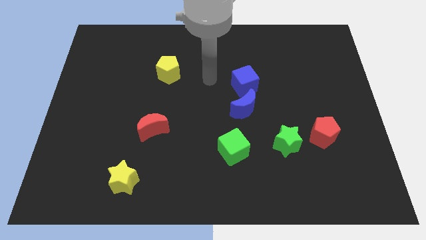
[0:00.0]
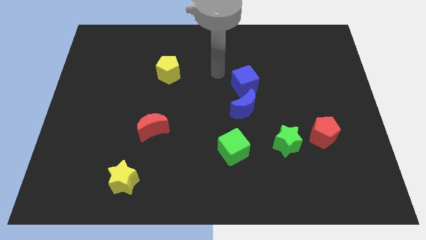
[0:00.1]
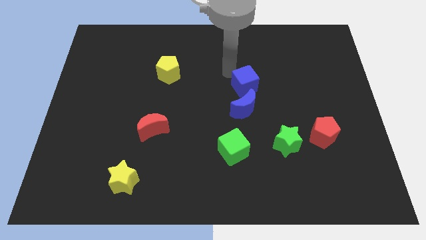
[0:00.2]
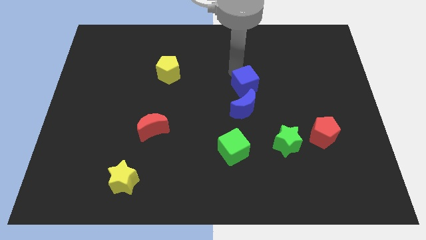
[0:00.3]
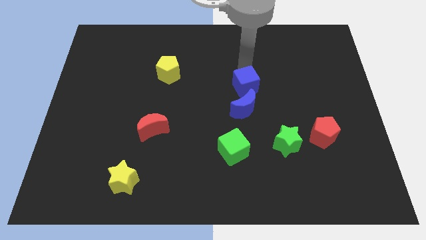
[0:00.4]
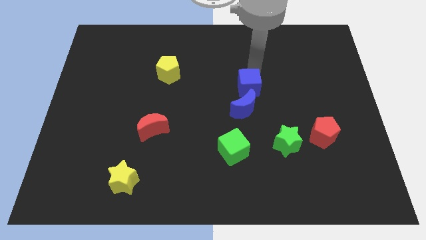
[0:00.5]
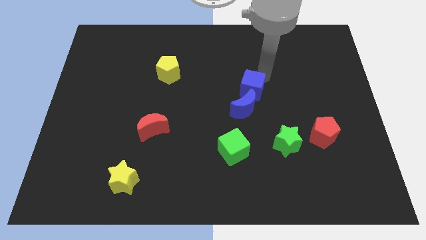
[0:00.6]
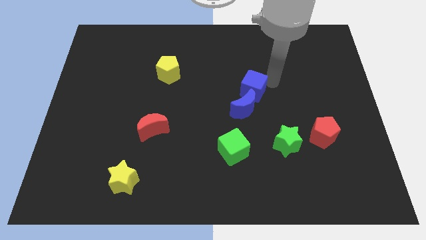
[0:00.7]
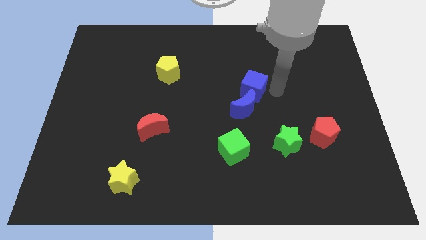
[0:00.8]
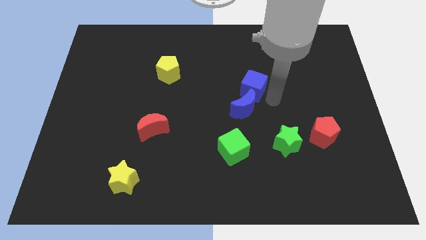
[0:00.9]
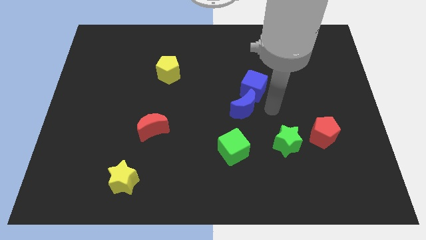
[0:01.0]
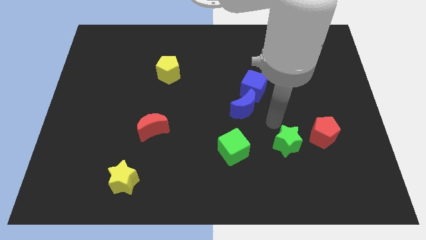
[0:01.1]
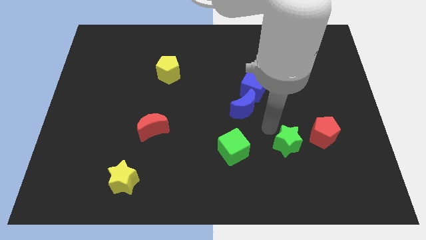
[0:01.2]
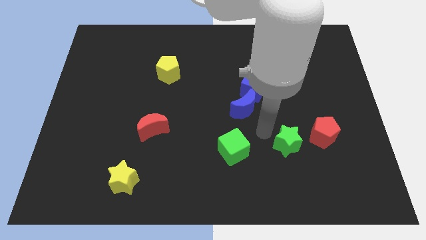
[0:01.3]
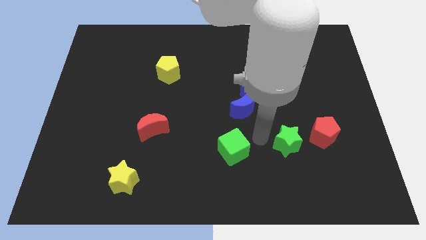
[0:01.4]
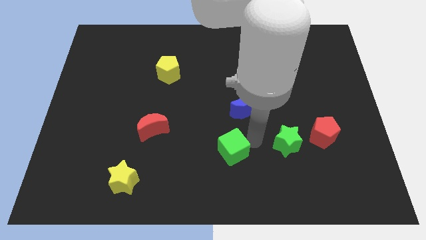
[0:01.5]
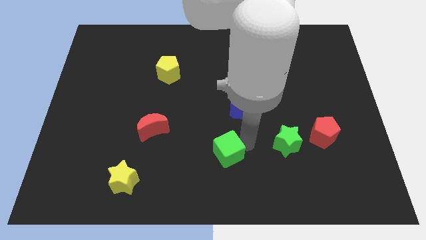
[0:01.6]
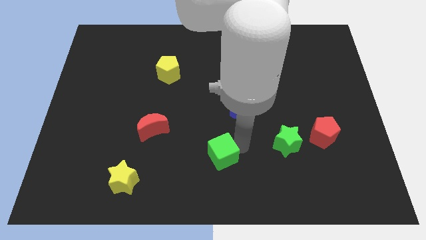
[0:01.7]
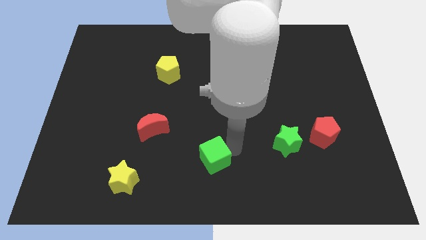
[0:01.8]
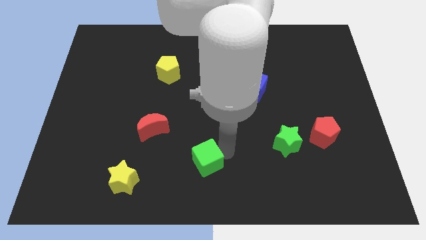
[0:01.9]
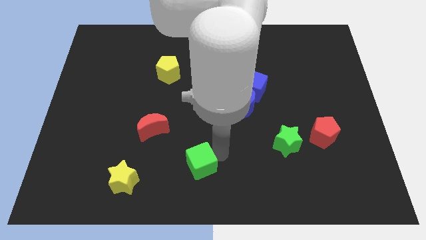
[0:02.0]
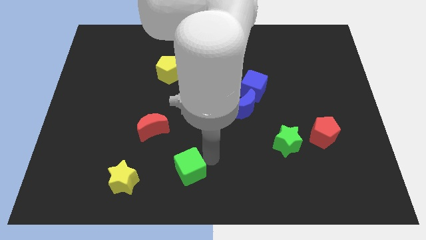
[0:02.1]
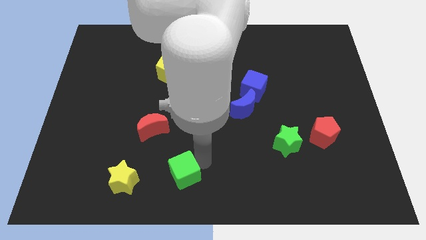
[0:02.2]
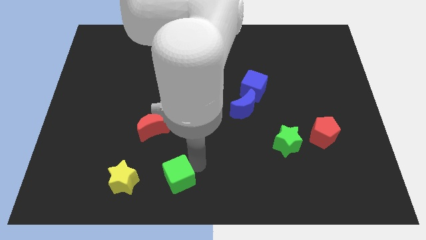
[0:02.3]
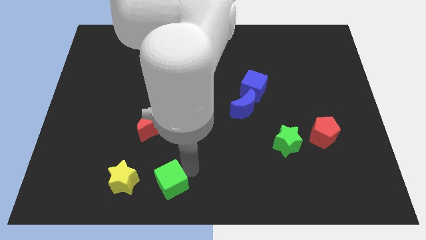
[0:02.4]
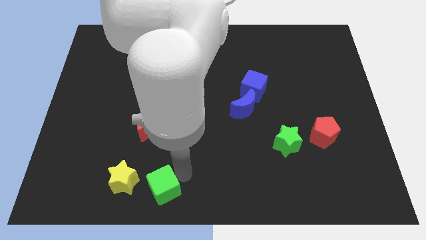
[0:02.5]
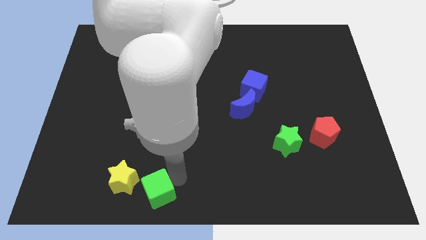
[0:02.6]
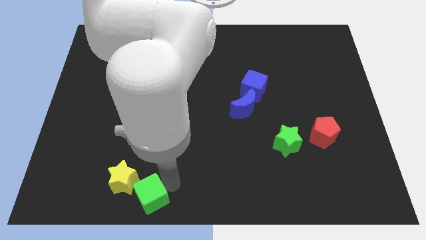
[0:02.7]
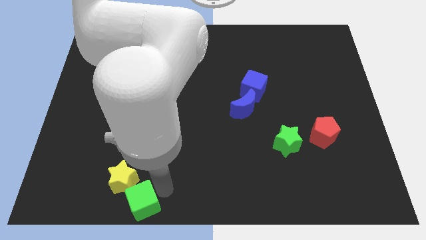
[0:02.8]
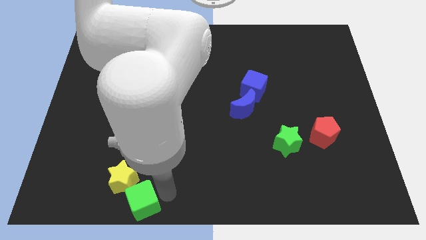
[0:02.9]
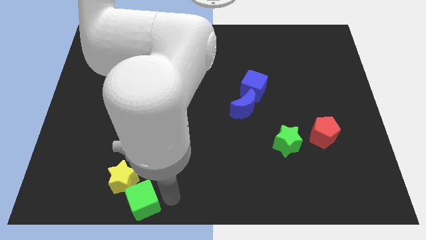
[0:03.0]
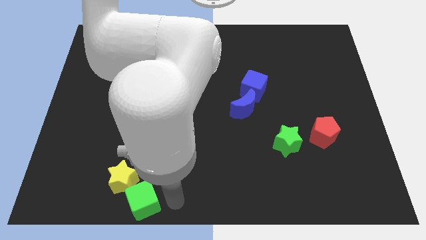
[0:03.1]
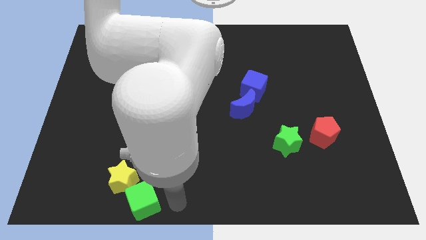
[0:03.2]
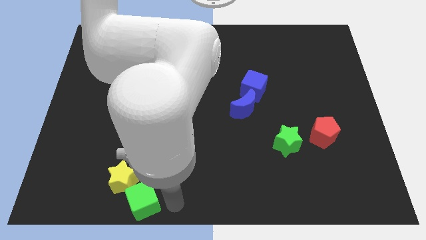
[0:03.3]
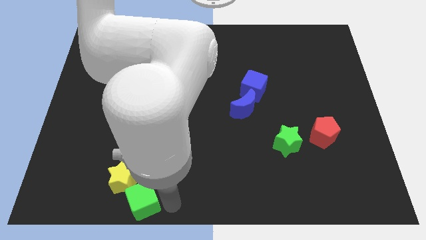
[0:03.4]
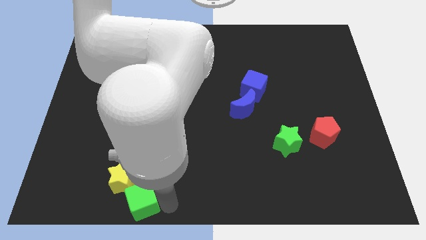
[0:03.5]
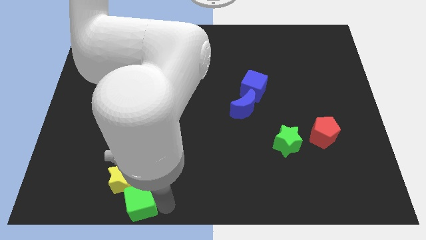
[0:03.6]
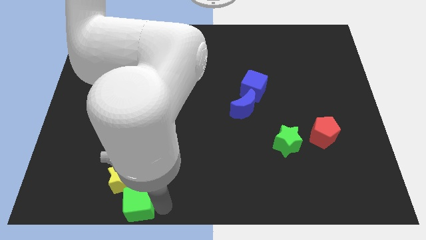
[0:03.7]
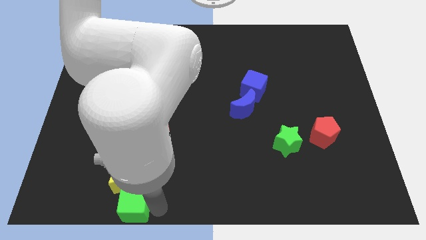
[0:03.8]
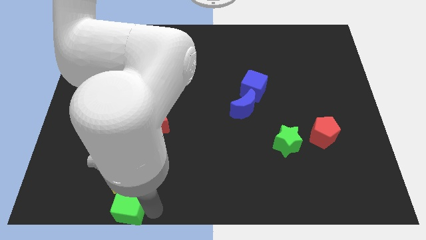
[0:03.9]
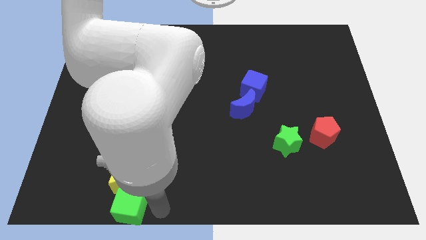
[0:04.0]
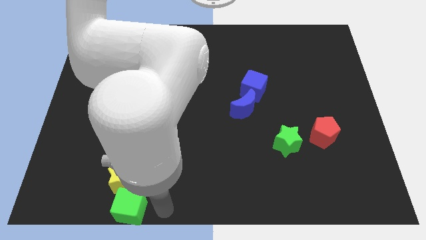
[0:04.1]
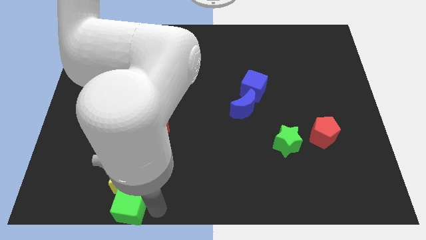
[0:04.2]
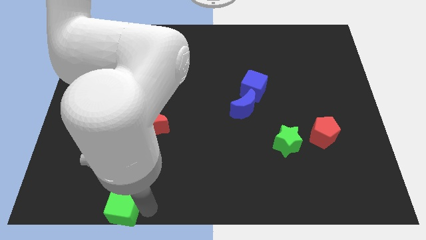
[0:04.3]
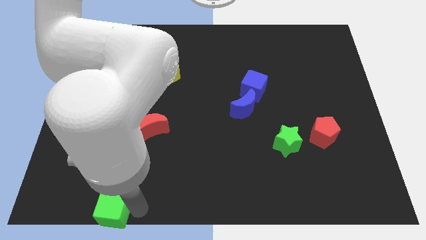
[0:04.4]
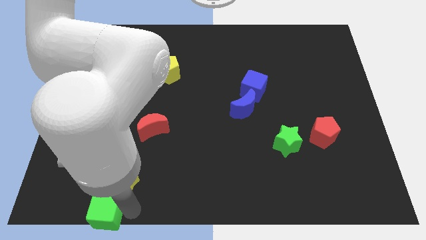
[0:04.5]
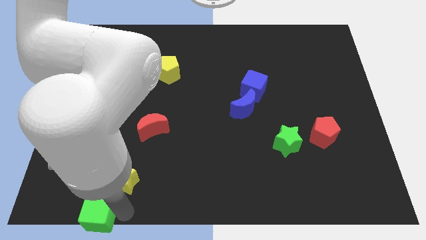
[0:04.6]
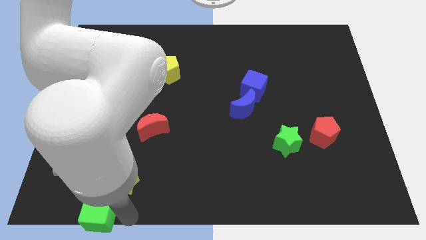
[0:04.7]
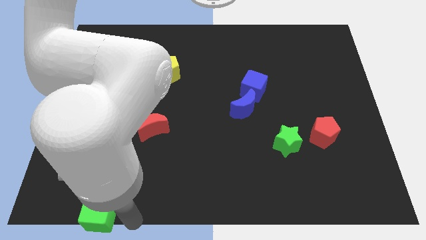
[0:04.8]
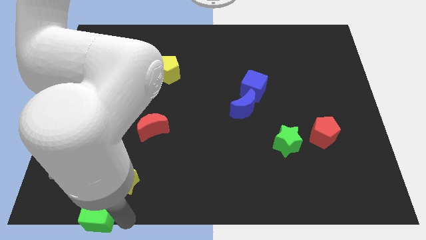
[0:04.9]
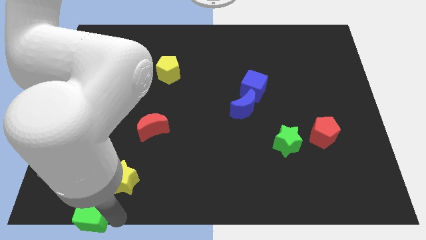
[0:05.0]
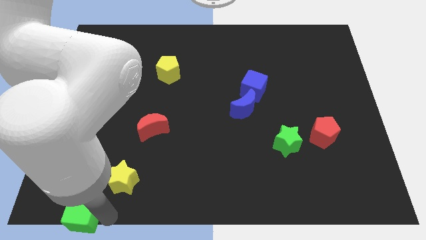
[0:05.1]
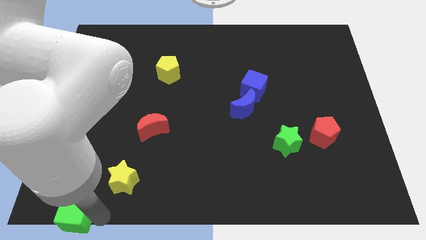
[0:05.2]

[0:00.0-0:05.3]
move the green cube to the bottom left

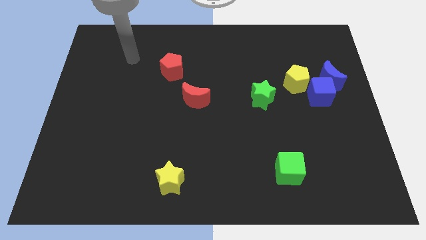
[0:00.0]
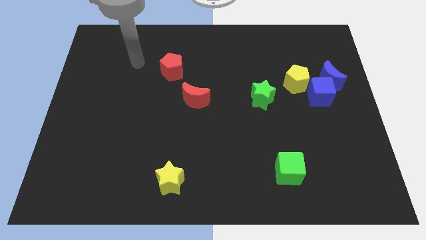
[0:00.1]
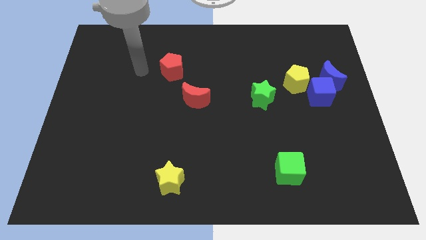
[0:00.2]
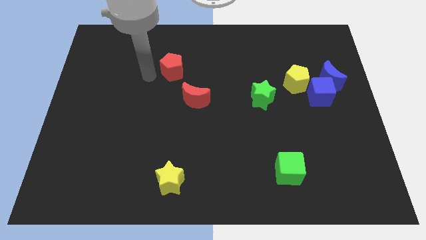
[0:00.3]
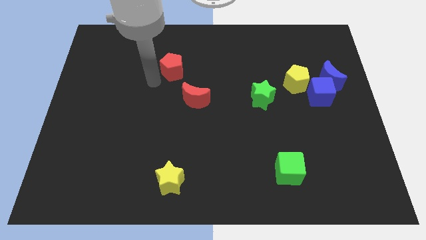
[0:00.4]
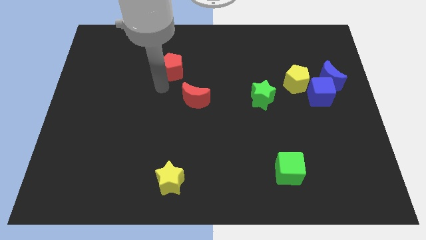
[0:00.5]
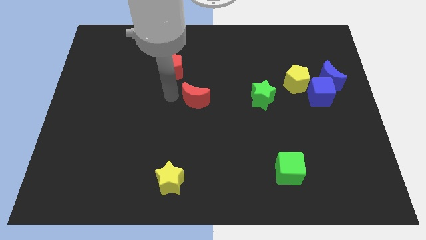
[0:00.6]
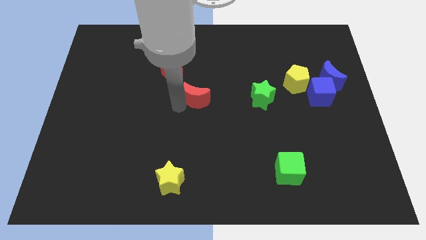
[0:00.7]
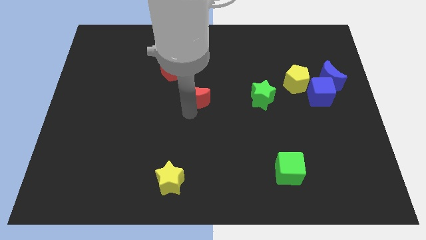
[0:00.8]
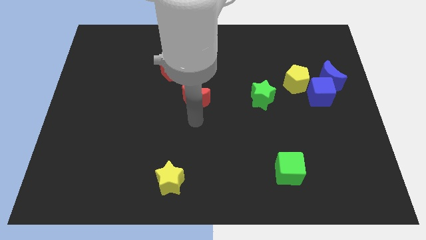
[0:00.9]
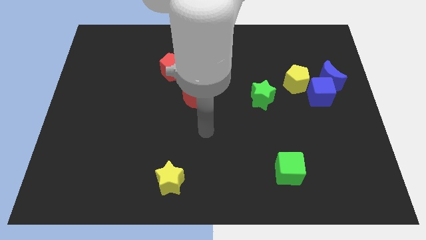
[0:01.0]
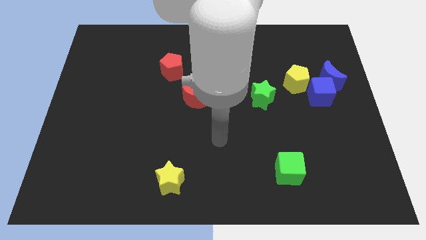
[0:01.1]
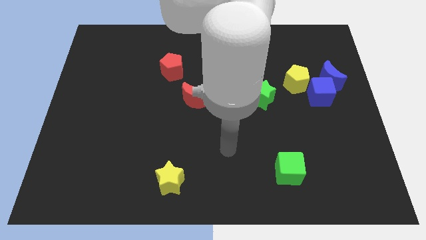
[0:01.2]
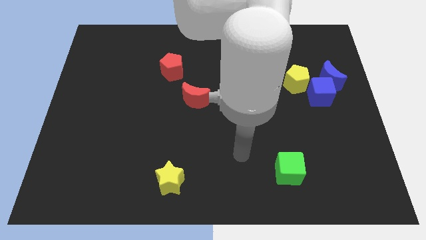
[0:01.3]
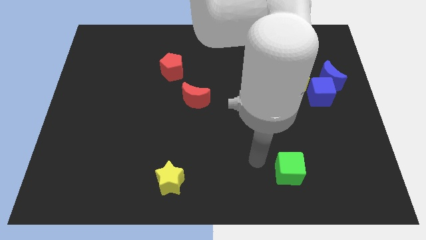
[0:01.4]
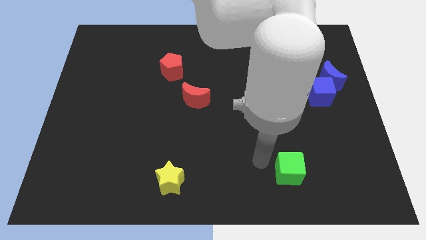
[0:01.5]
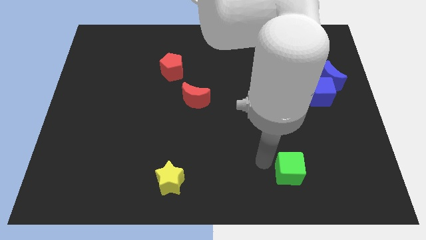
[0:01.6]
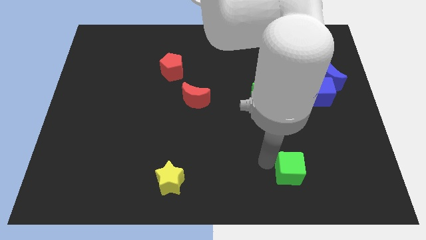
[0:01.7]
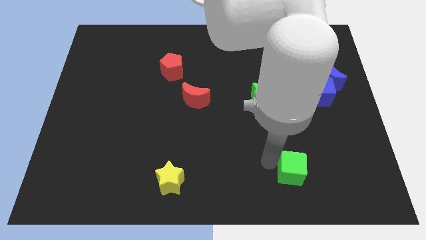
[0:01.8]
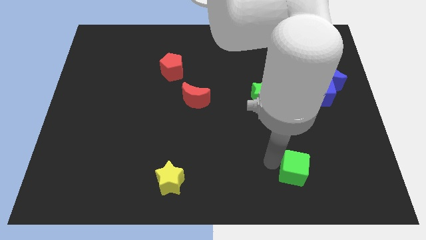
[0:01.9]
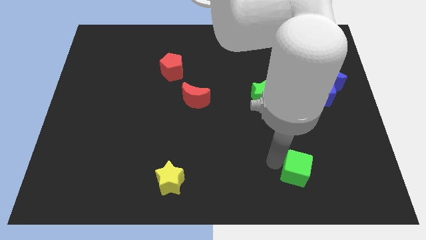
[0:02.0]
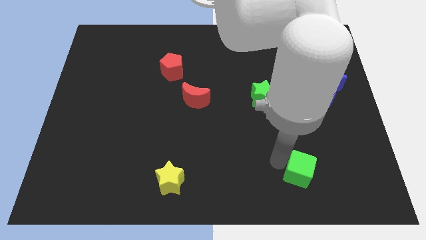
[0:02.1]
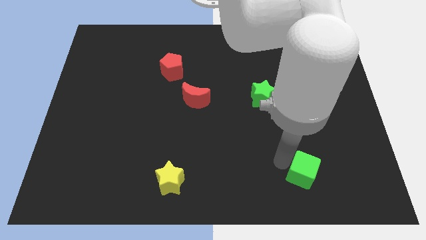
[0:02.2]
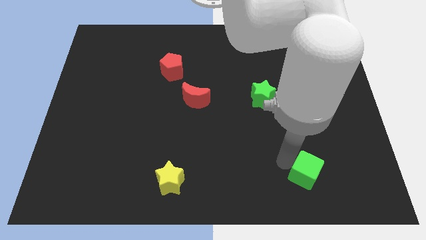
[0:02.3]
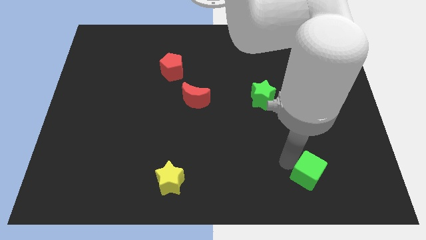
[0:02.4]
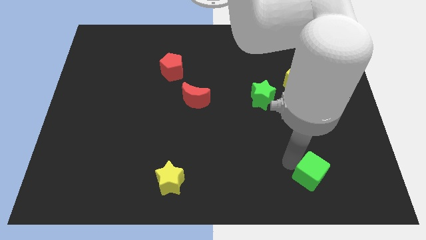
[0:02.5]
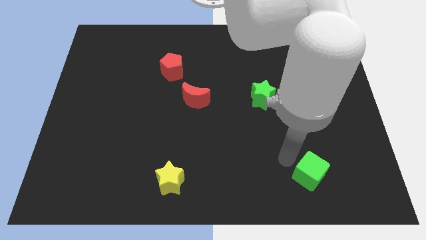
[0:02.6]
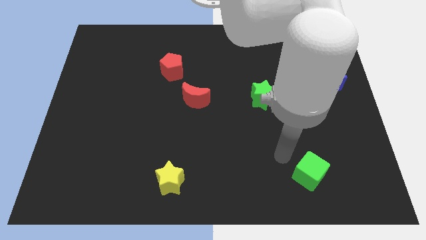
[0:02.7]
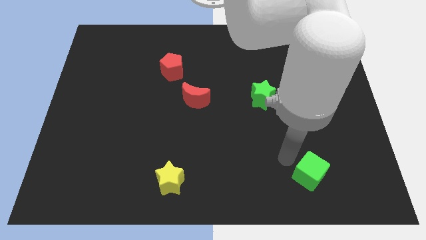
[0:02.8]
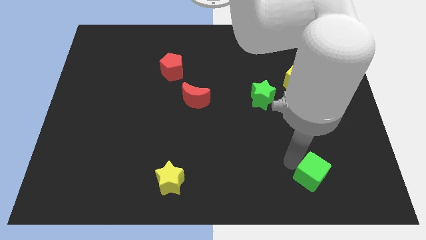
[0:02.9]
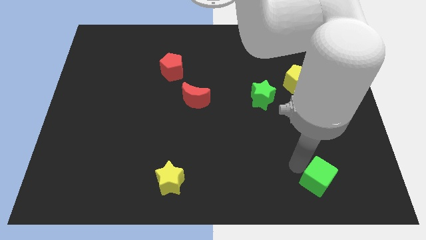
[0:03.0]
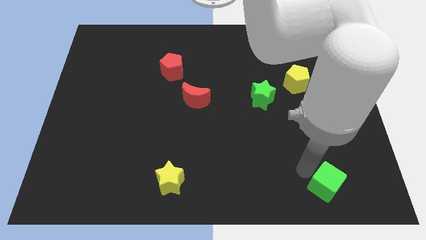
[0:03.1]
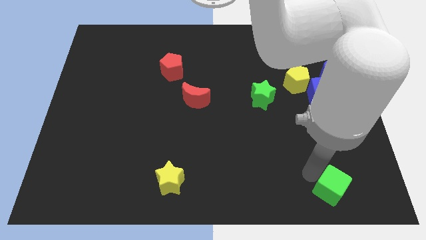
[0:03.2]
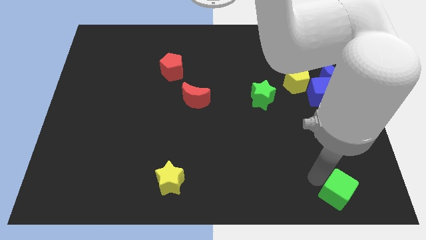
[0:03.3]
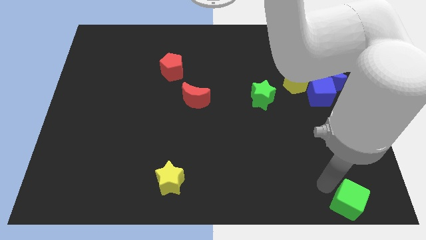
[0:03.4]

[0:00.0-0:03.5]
put the green cube to the bottom right
